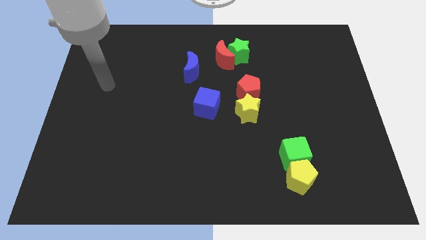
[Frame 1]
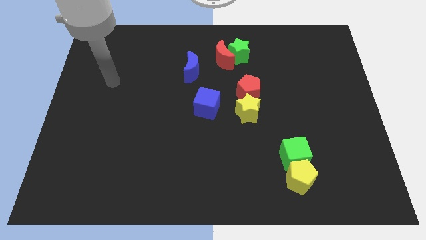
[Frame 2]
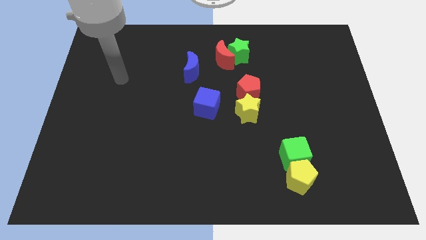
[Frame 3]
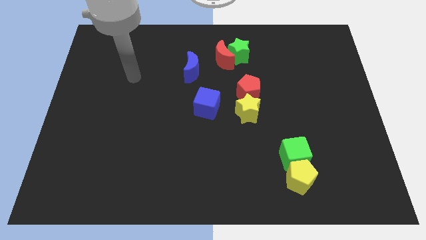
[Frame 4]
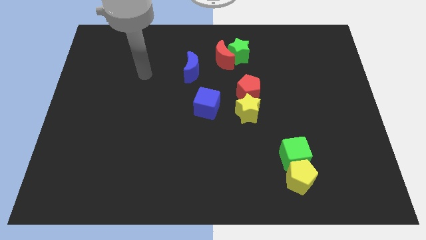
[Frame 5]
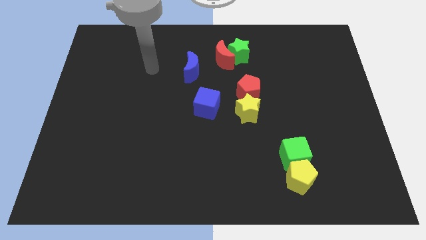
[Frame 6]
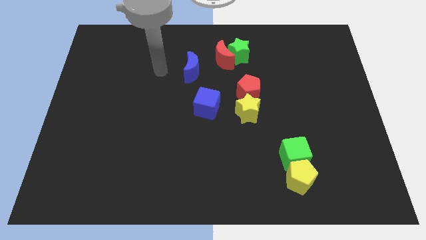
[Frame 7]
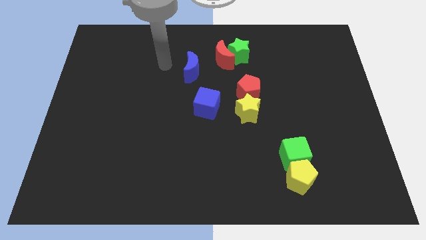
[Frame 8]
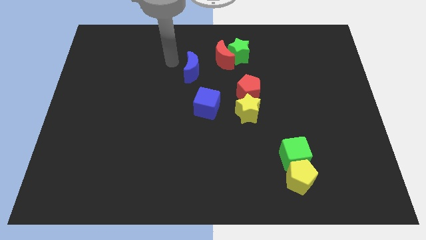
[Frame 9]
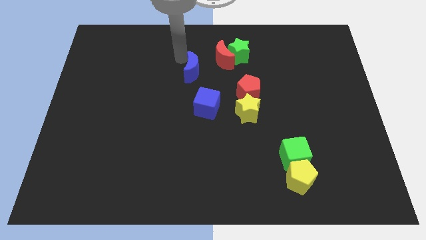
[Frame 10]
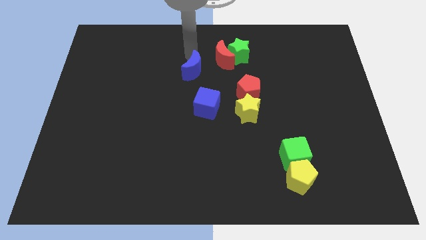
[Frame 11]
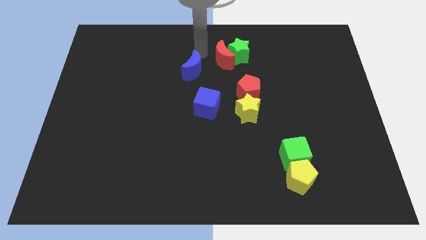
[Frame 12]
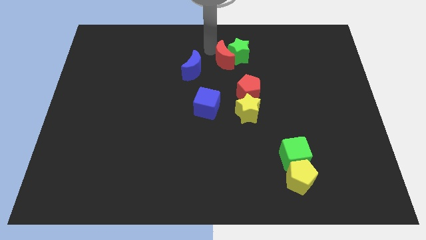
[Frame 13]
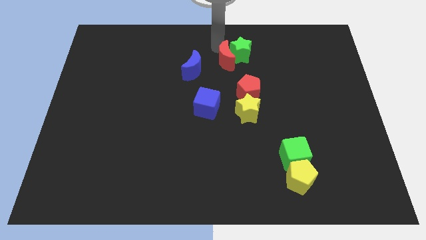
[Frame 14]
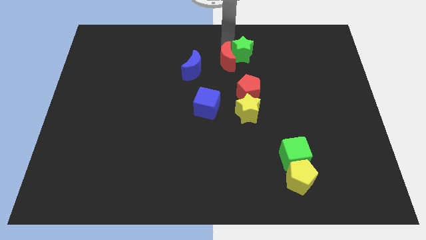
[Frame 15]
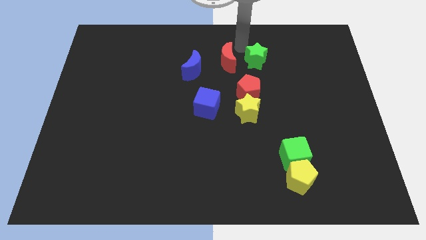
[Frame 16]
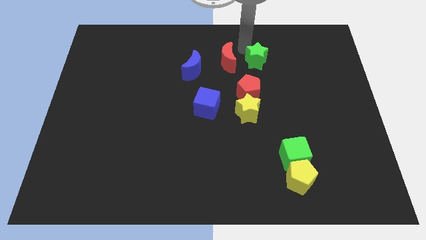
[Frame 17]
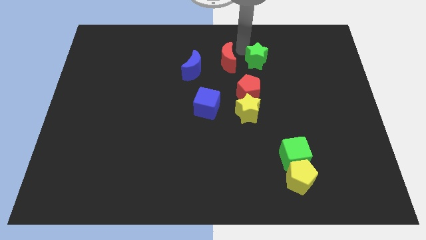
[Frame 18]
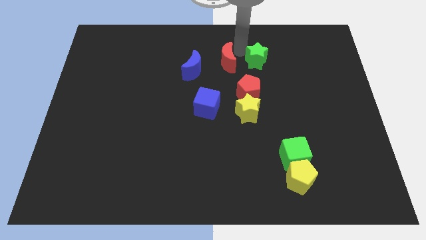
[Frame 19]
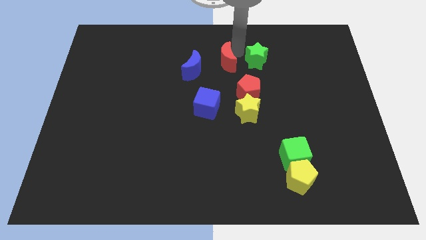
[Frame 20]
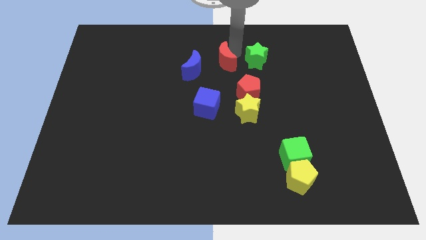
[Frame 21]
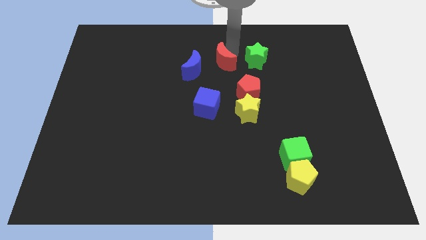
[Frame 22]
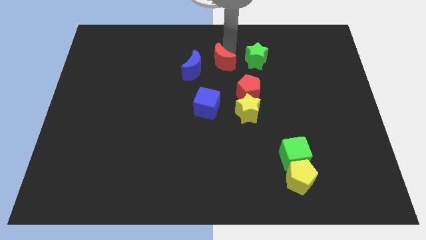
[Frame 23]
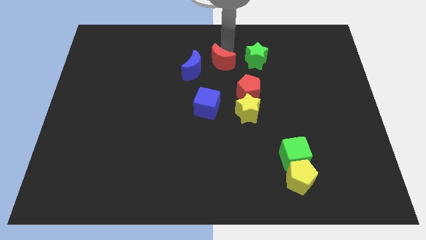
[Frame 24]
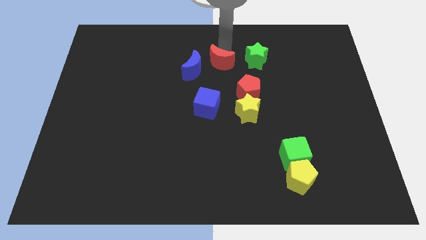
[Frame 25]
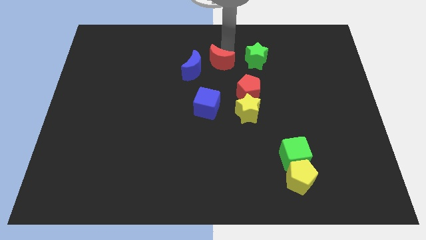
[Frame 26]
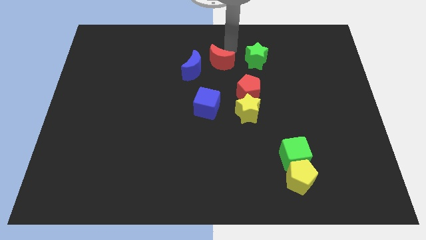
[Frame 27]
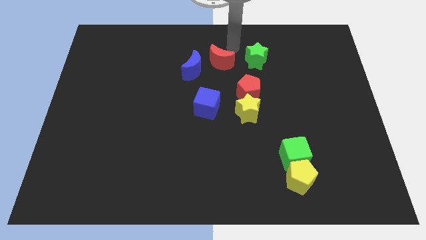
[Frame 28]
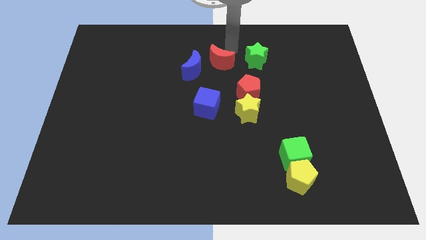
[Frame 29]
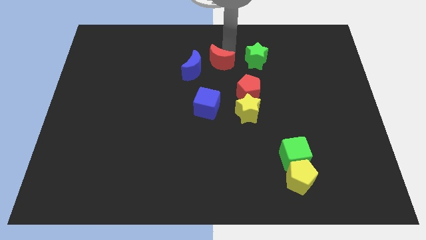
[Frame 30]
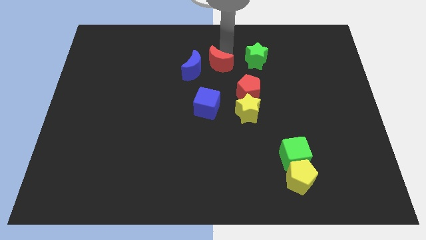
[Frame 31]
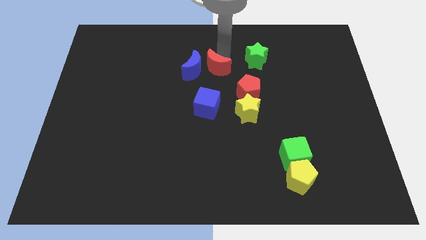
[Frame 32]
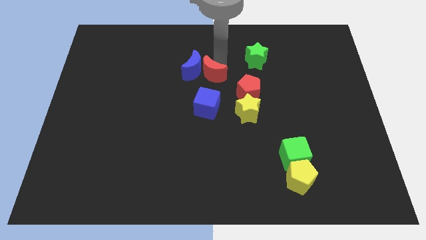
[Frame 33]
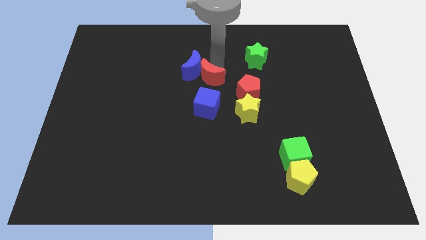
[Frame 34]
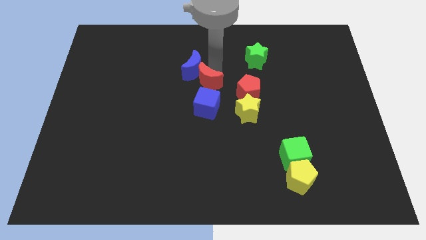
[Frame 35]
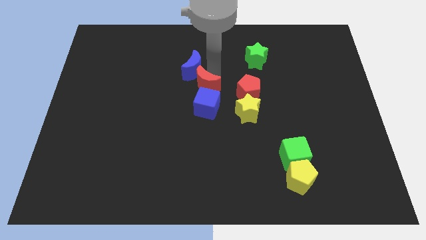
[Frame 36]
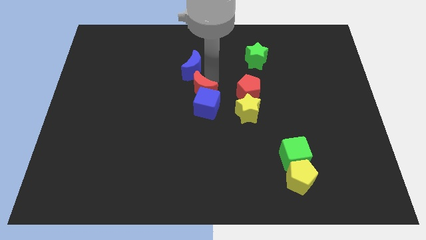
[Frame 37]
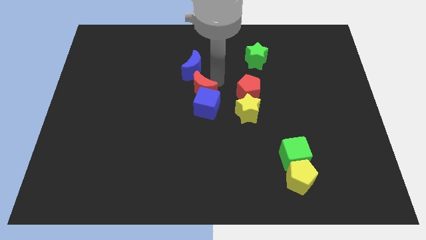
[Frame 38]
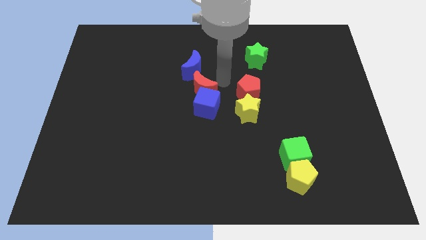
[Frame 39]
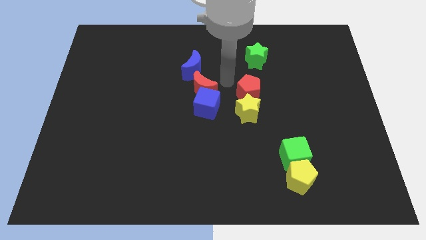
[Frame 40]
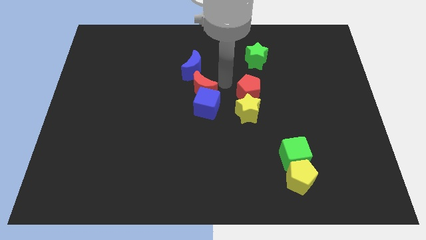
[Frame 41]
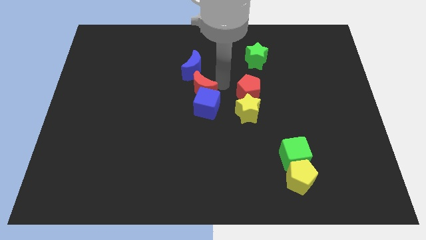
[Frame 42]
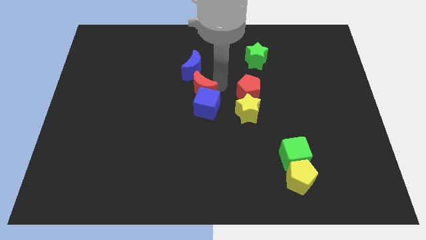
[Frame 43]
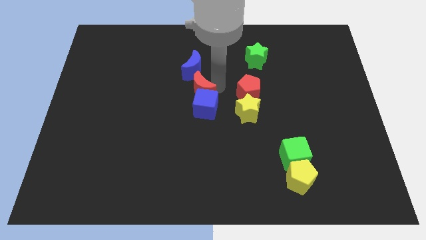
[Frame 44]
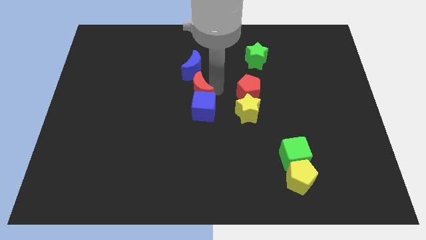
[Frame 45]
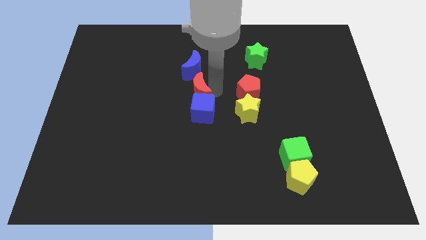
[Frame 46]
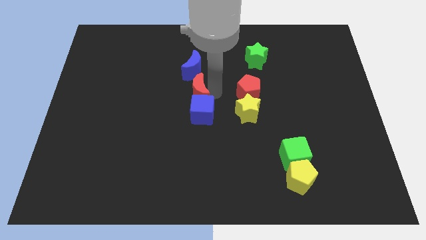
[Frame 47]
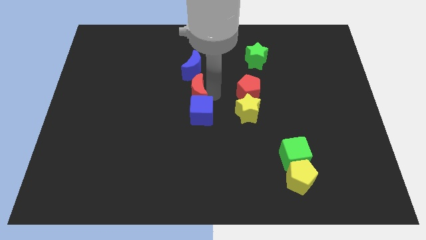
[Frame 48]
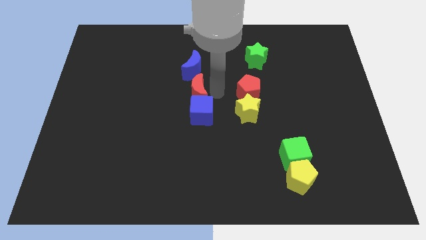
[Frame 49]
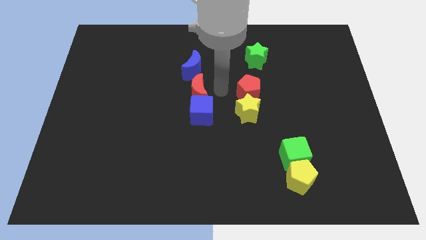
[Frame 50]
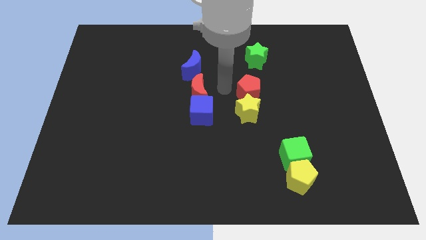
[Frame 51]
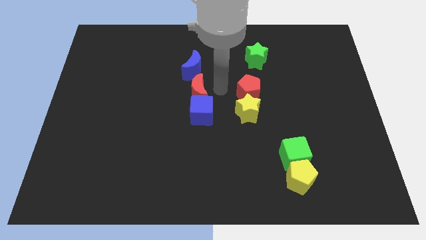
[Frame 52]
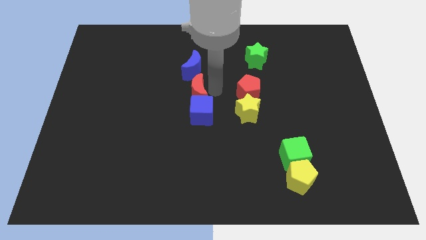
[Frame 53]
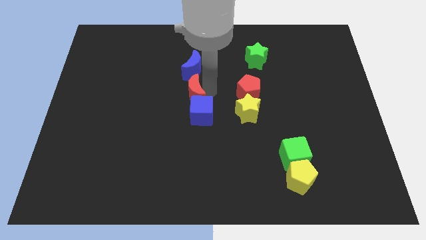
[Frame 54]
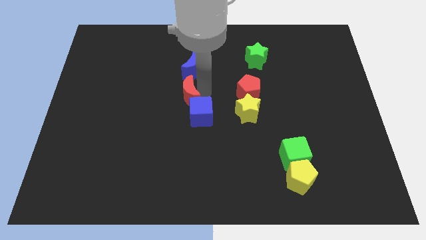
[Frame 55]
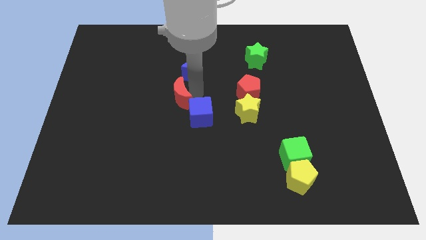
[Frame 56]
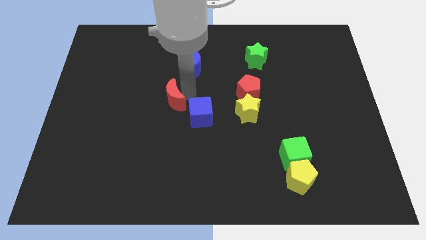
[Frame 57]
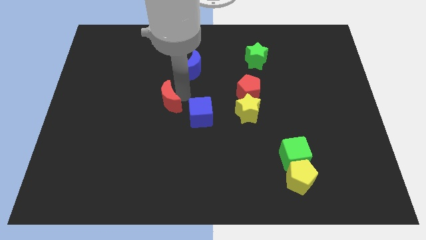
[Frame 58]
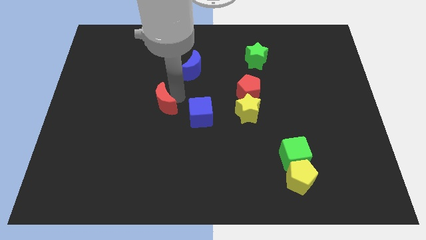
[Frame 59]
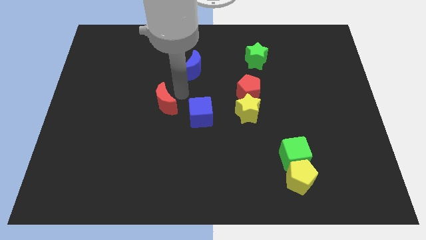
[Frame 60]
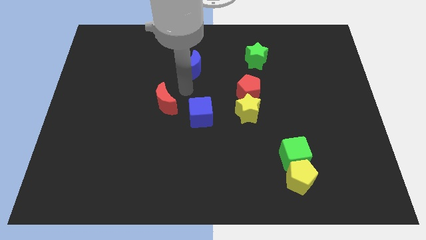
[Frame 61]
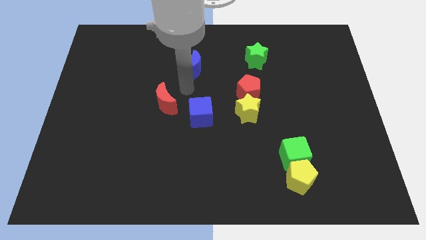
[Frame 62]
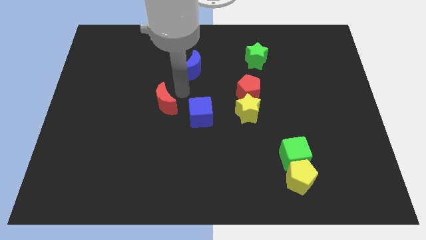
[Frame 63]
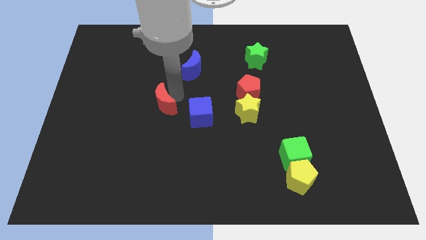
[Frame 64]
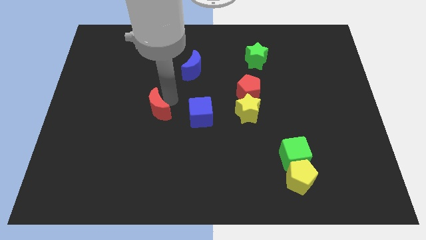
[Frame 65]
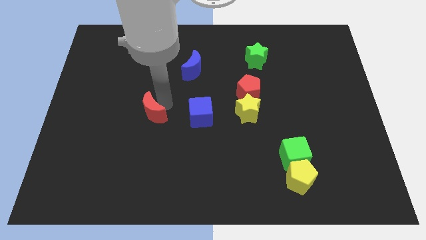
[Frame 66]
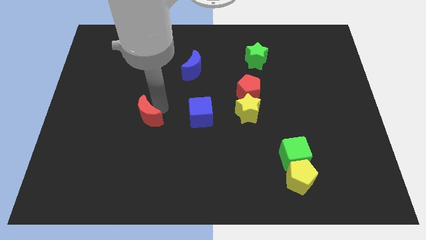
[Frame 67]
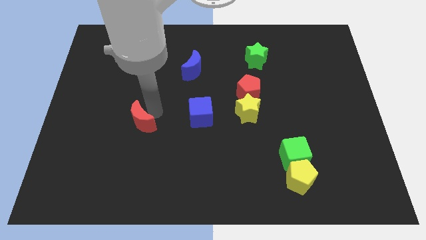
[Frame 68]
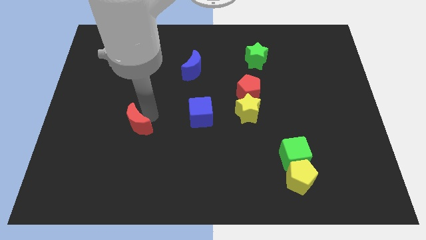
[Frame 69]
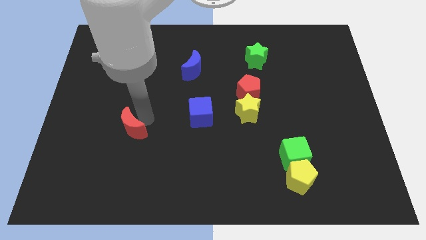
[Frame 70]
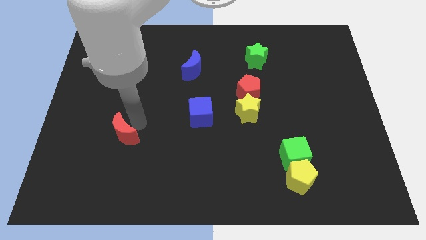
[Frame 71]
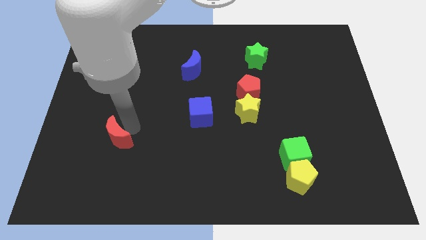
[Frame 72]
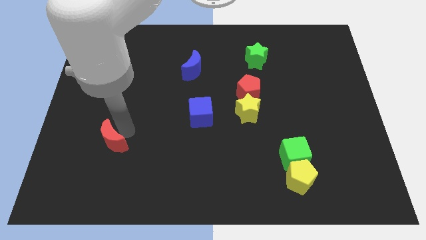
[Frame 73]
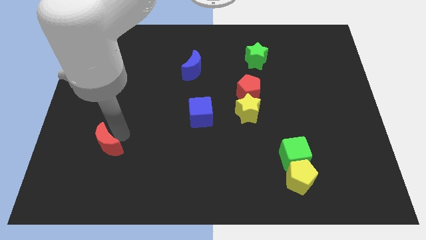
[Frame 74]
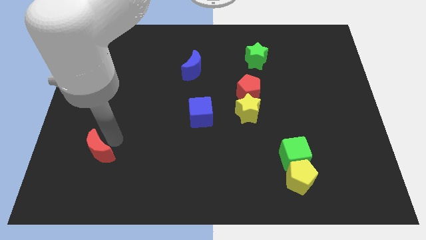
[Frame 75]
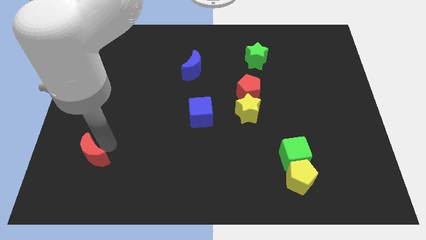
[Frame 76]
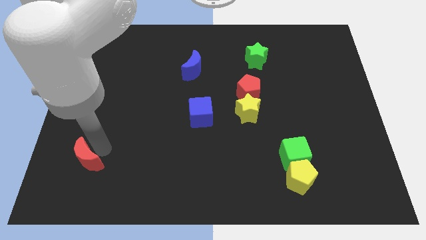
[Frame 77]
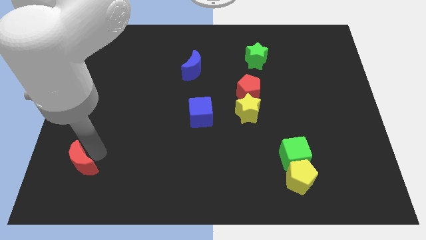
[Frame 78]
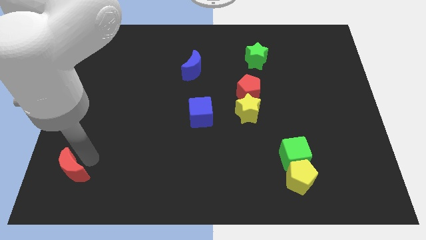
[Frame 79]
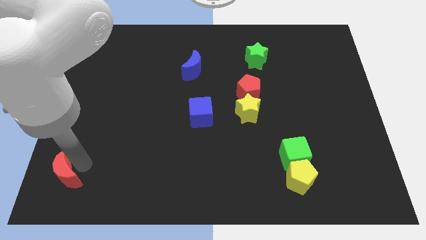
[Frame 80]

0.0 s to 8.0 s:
move the red moon to the bottom left corner
